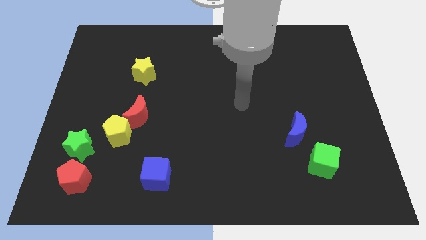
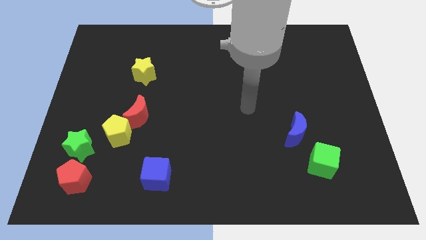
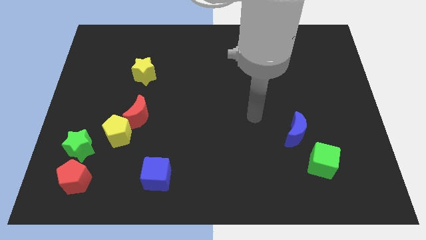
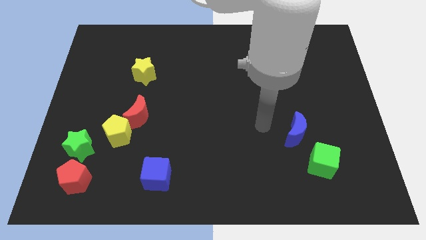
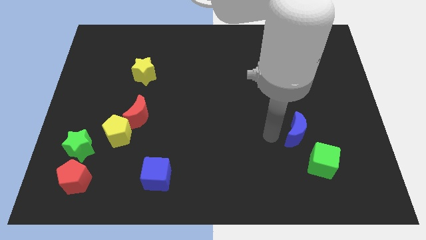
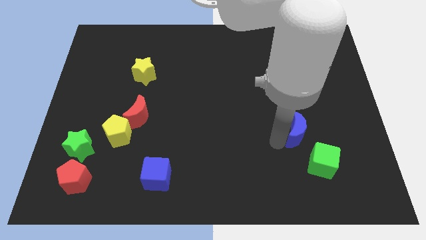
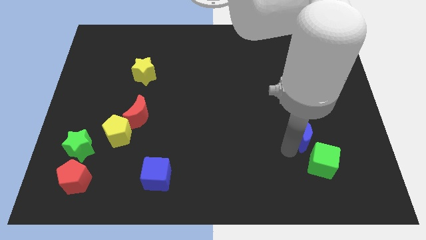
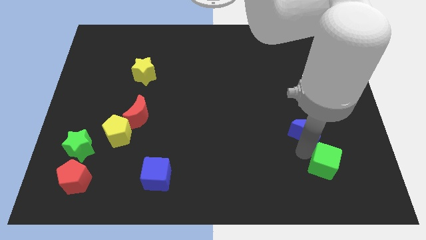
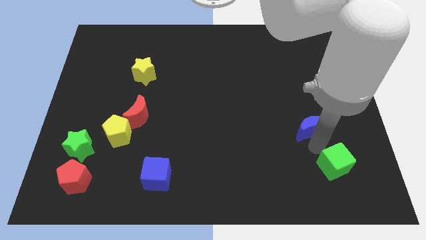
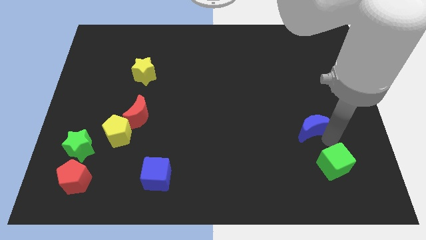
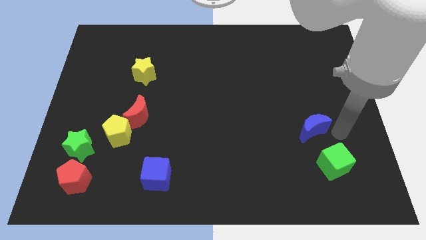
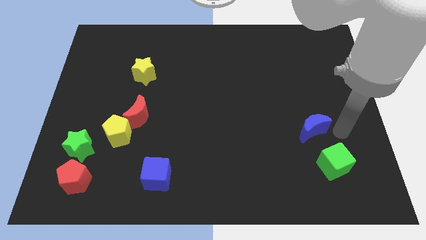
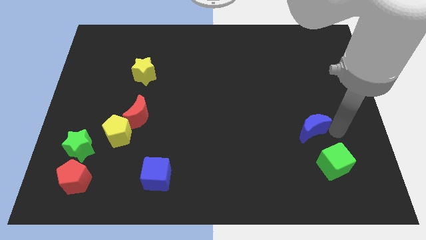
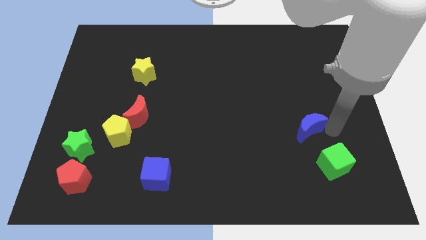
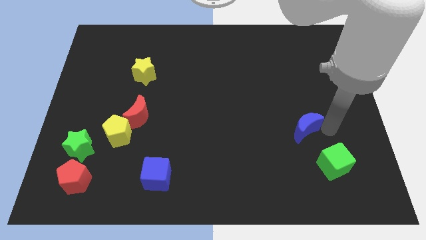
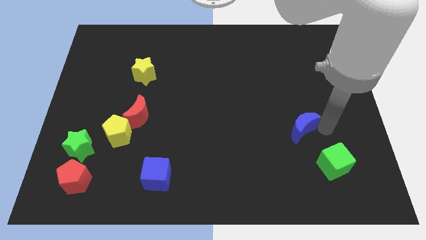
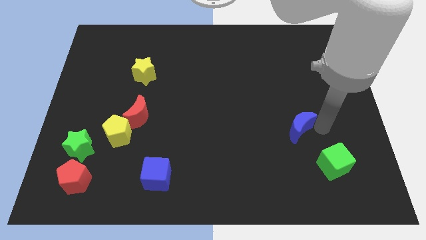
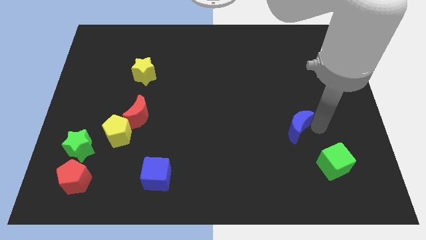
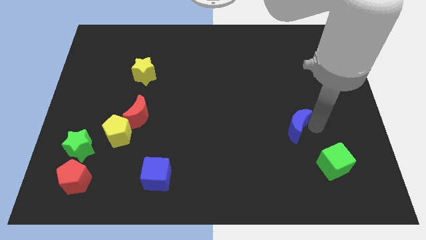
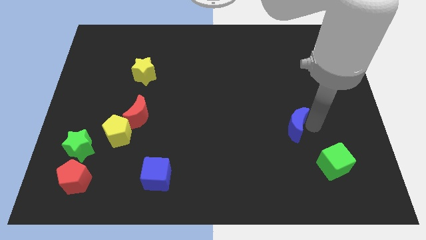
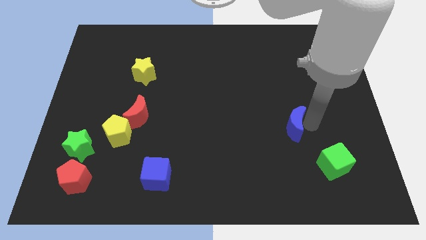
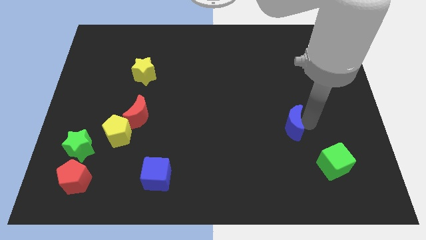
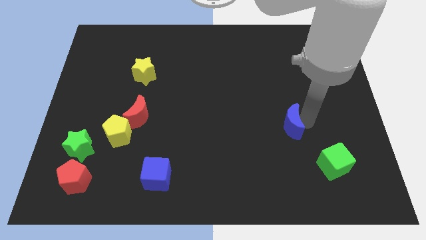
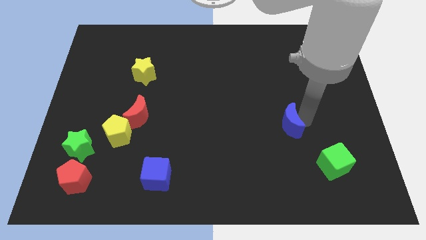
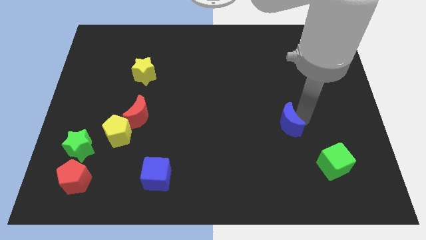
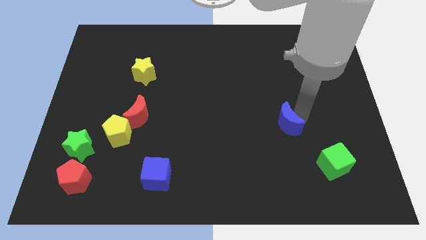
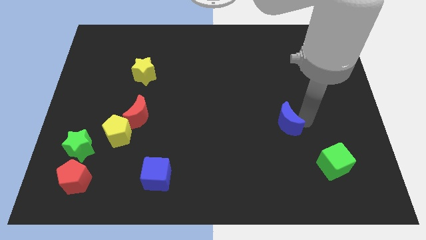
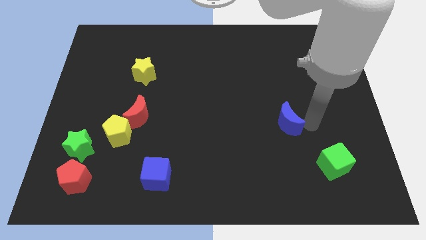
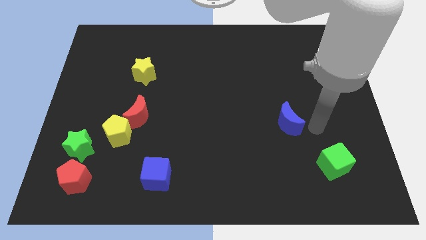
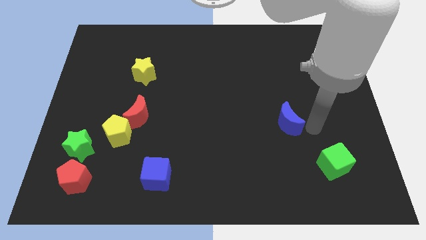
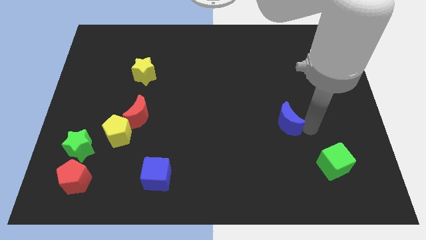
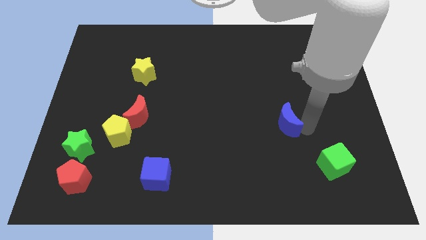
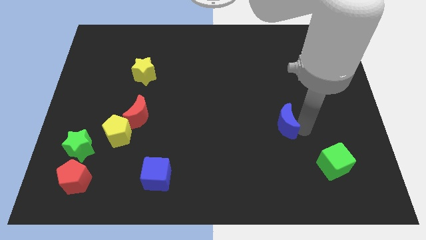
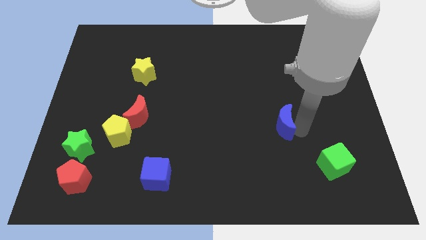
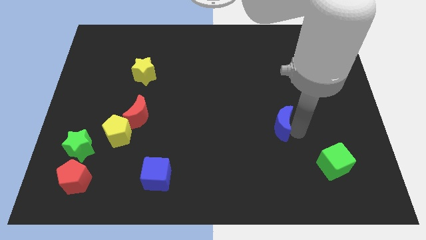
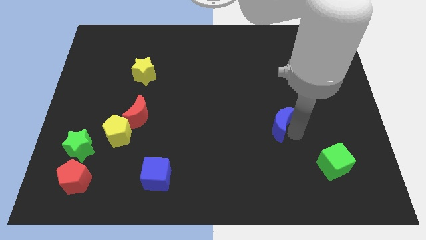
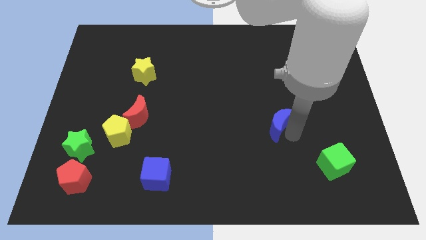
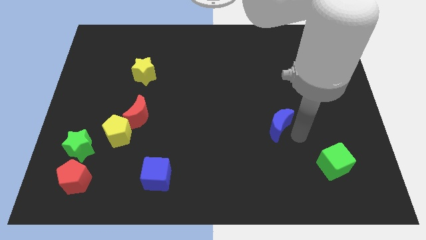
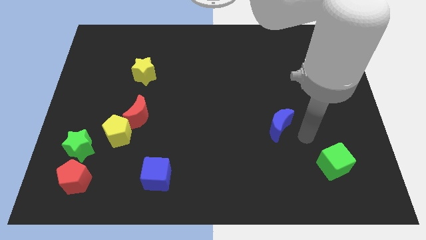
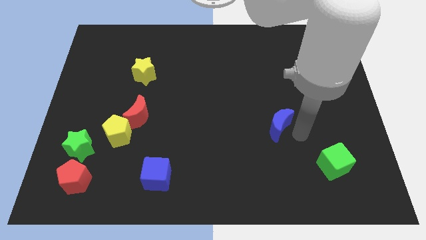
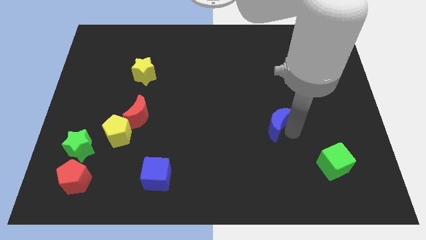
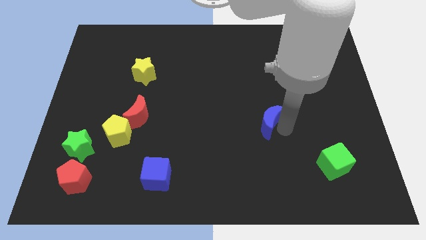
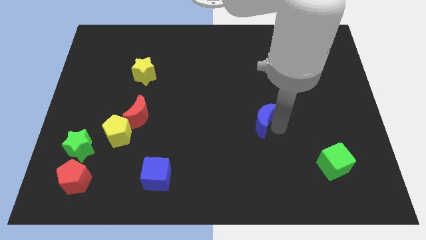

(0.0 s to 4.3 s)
slightly slide the blue moon upwards and left diagonally

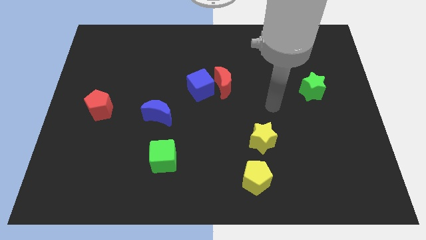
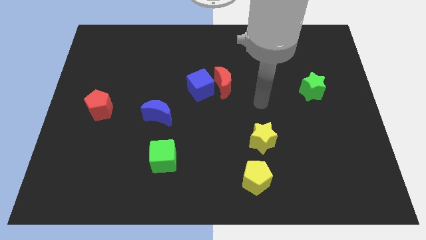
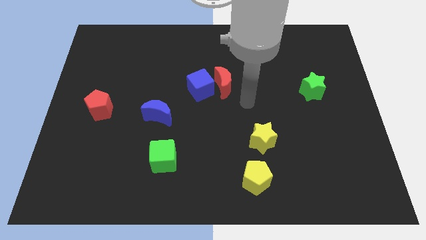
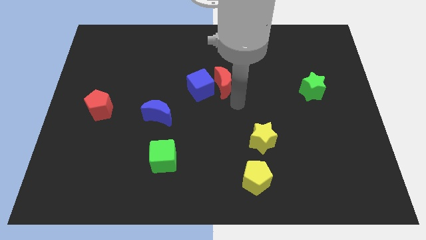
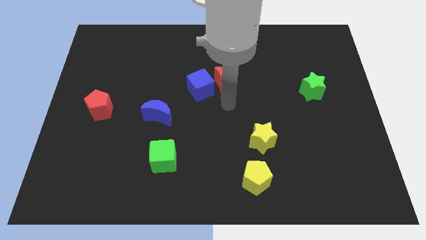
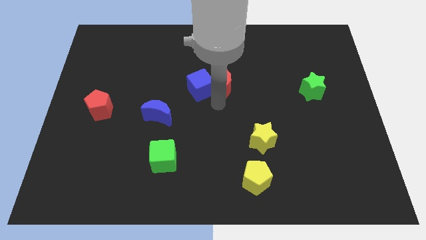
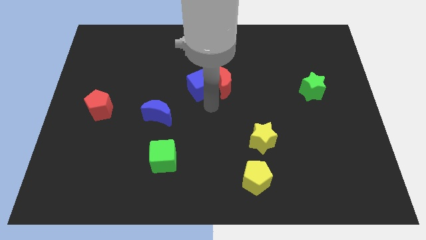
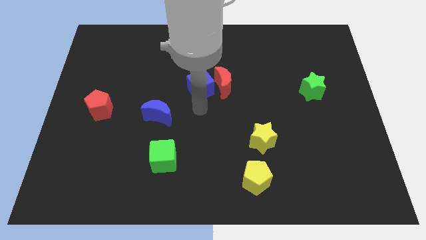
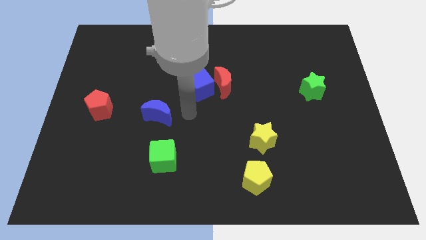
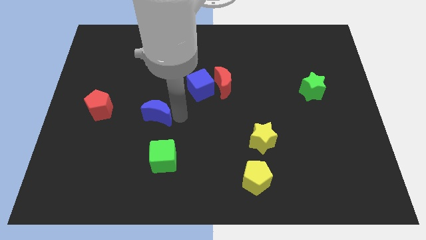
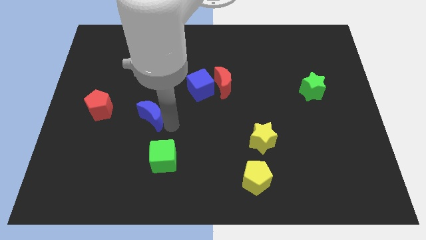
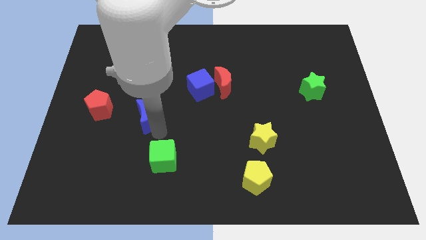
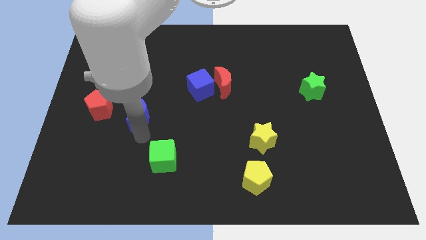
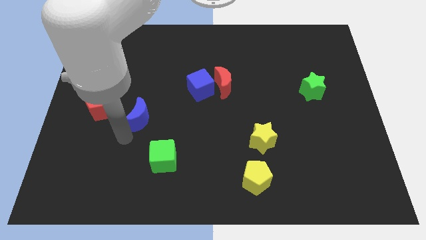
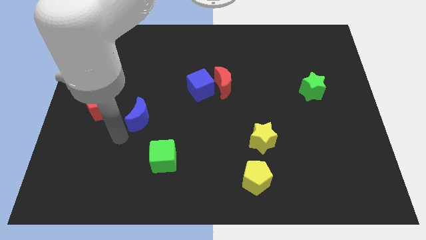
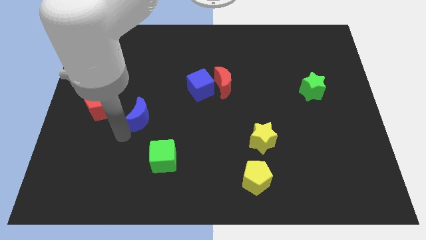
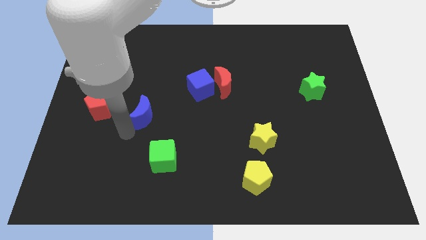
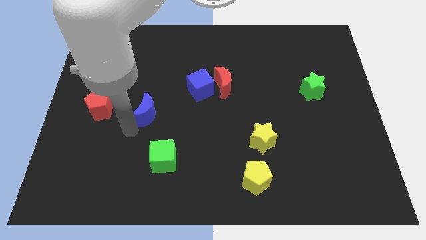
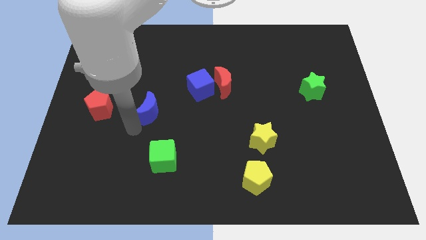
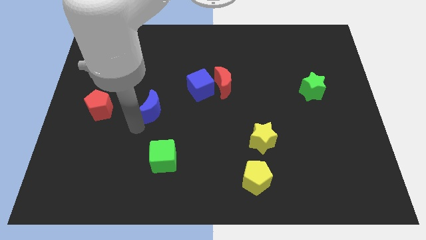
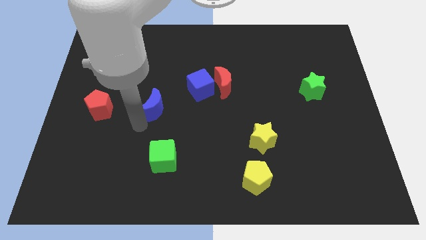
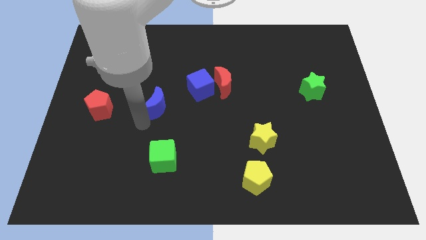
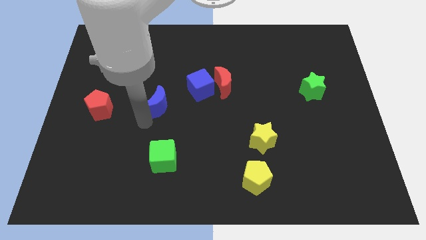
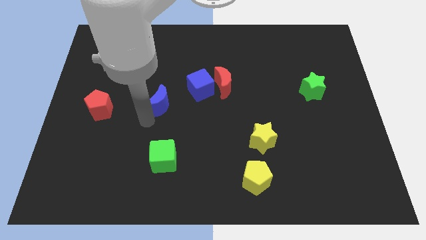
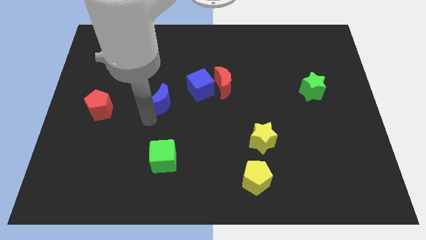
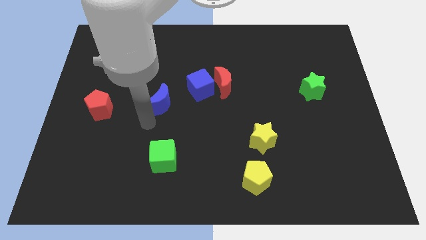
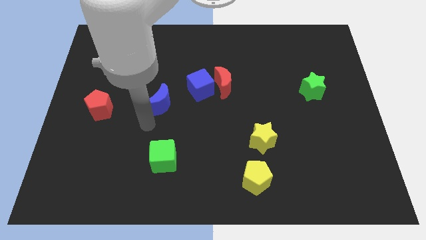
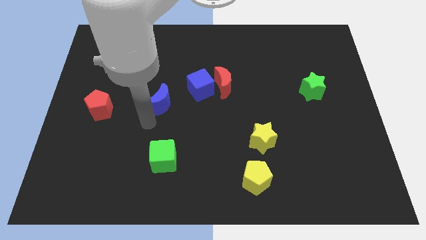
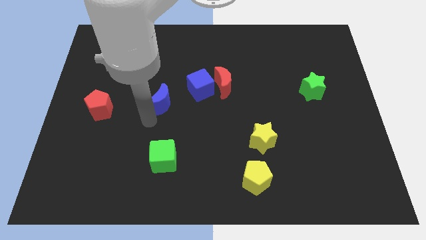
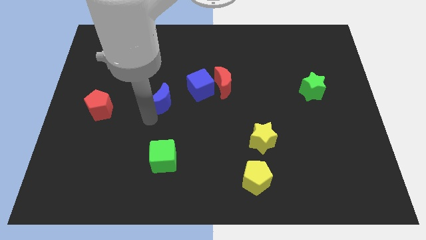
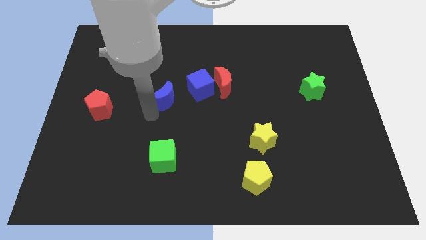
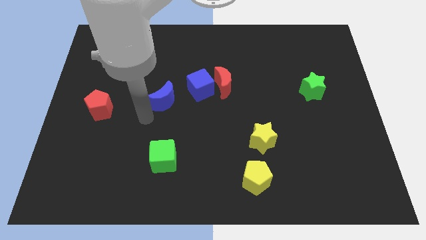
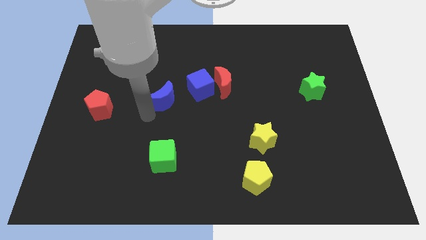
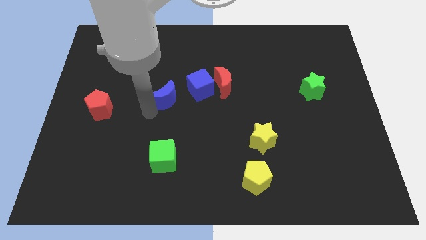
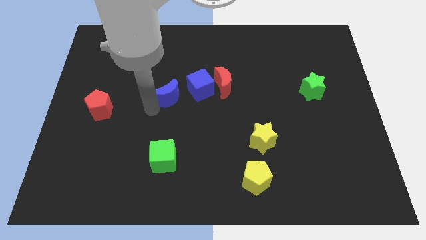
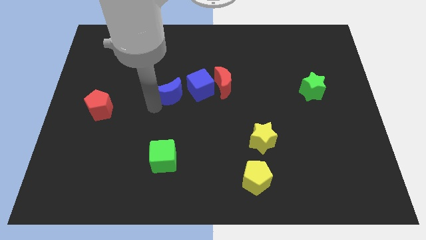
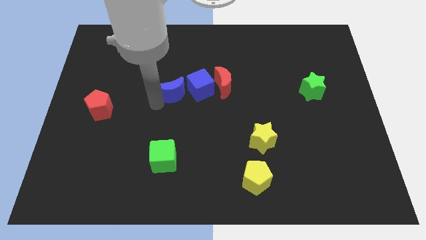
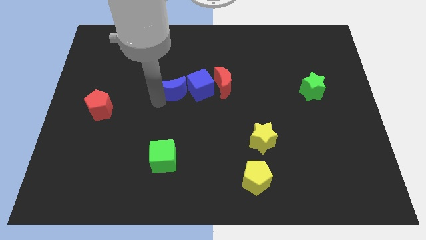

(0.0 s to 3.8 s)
move the blue moon a bit upwards and right
